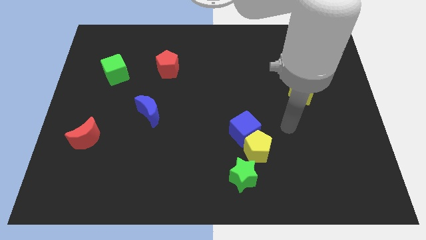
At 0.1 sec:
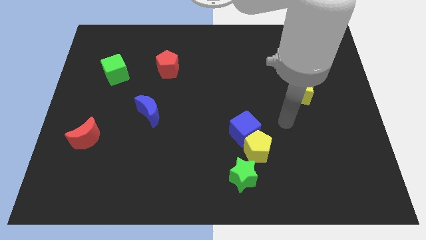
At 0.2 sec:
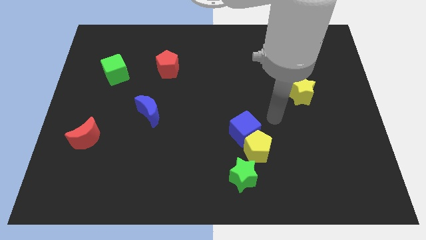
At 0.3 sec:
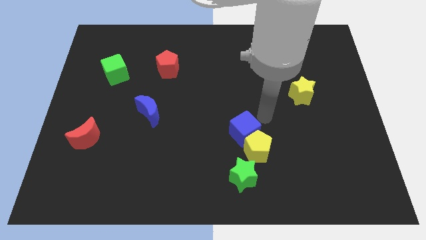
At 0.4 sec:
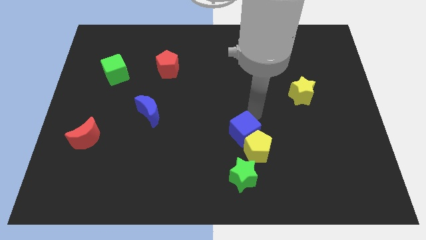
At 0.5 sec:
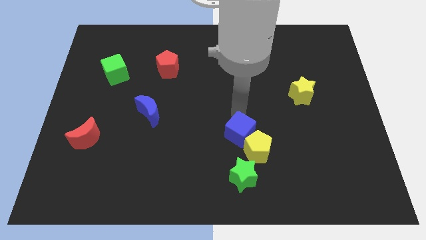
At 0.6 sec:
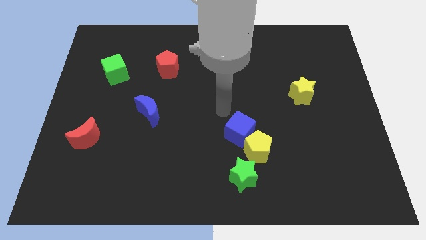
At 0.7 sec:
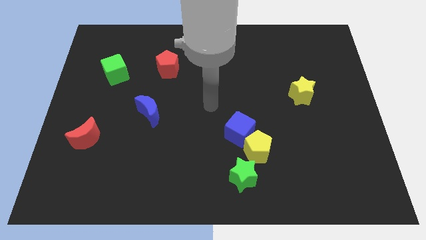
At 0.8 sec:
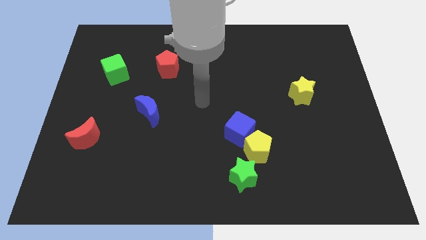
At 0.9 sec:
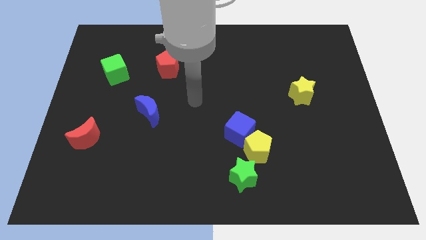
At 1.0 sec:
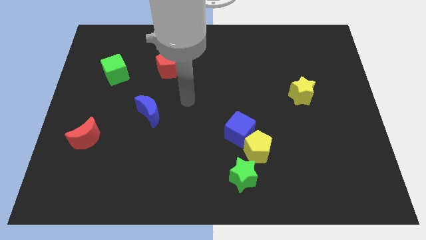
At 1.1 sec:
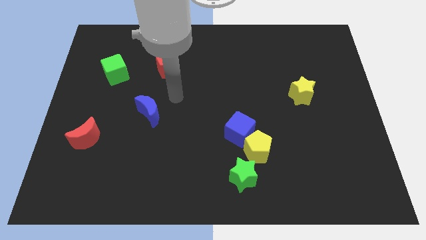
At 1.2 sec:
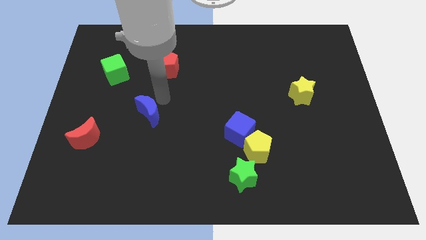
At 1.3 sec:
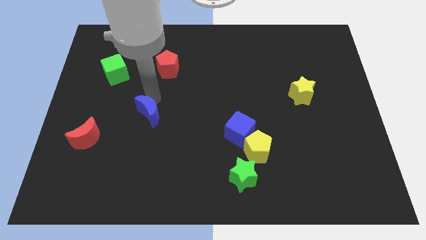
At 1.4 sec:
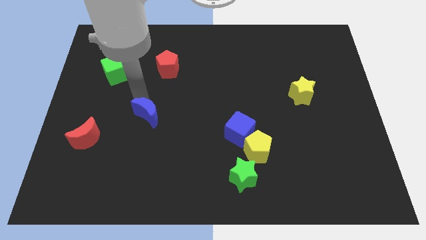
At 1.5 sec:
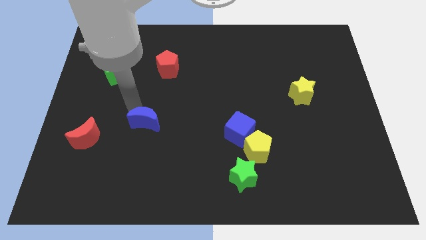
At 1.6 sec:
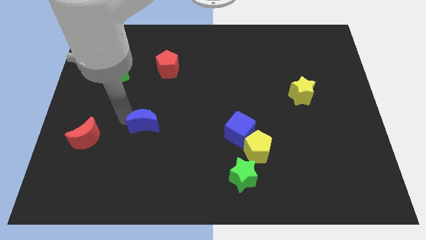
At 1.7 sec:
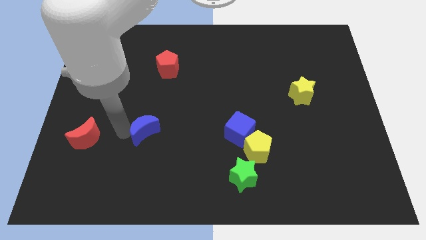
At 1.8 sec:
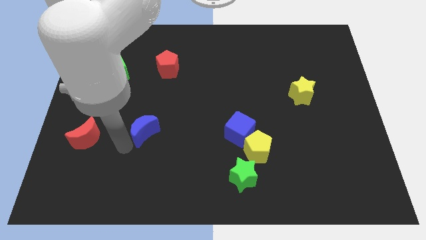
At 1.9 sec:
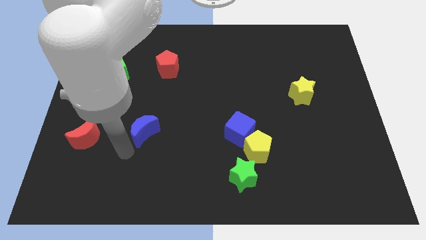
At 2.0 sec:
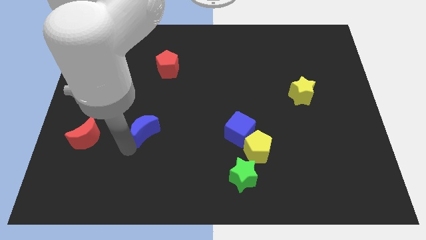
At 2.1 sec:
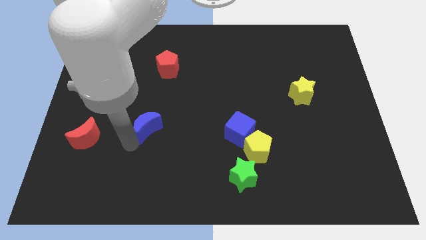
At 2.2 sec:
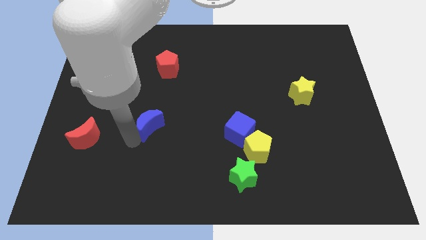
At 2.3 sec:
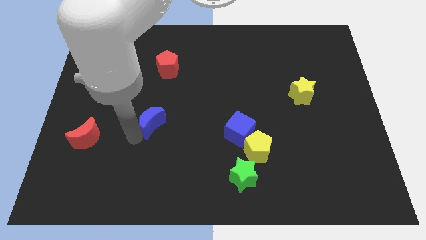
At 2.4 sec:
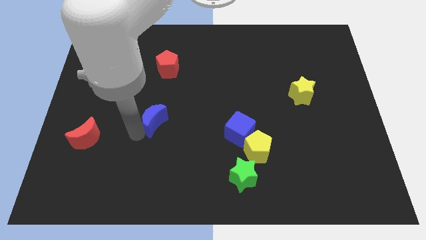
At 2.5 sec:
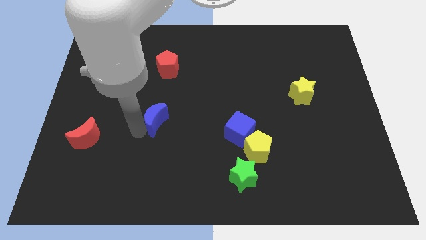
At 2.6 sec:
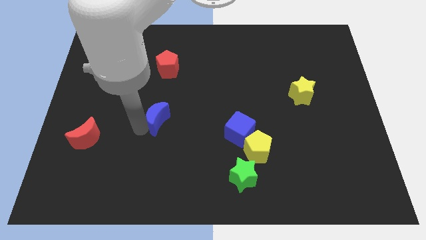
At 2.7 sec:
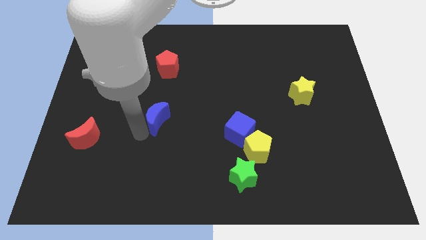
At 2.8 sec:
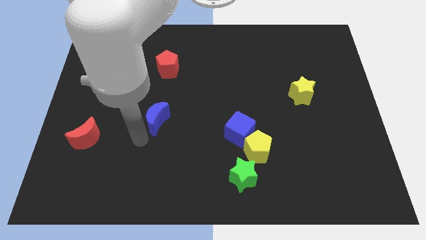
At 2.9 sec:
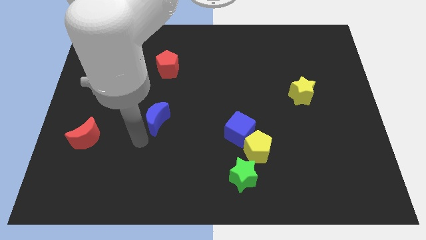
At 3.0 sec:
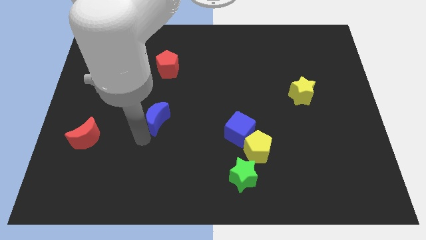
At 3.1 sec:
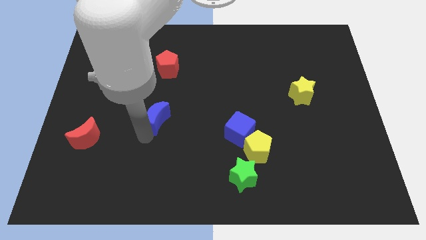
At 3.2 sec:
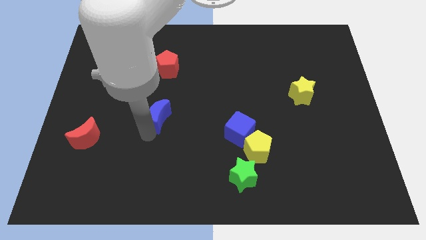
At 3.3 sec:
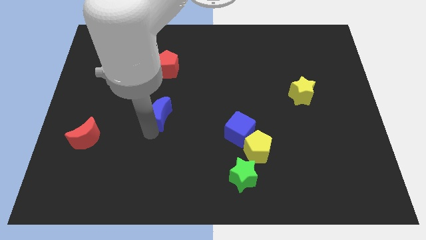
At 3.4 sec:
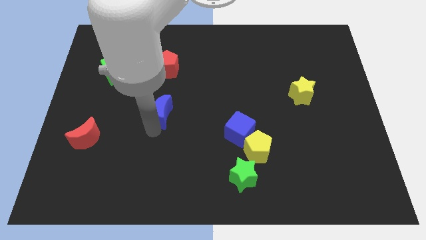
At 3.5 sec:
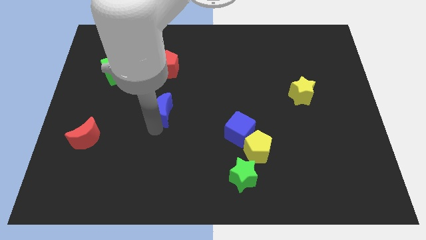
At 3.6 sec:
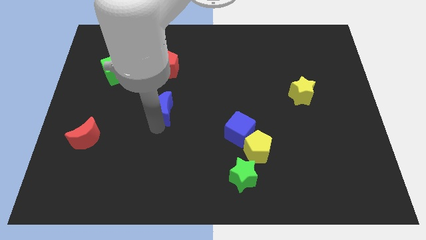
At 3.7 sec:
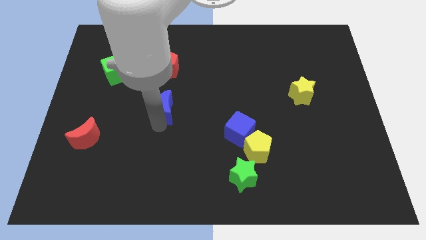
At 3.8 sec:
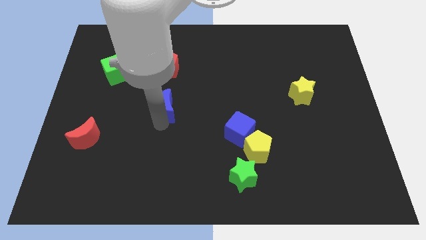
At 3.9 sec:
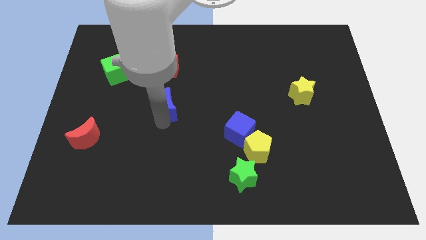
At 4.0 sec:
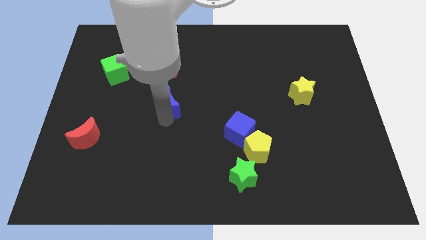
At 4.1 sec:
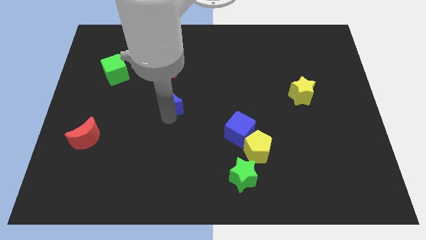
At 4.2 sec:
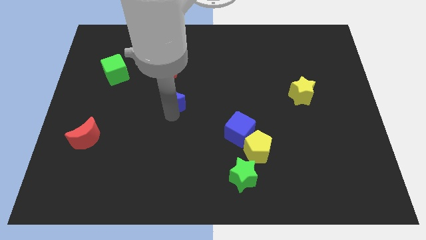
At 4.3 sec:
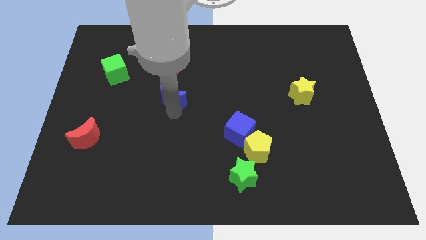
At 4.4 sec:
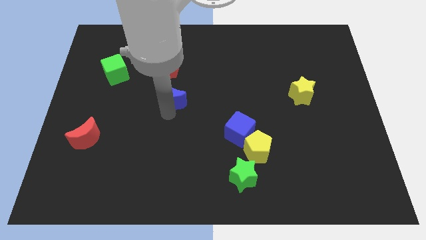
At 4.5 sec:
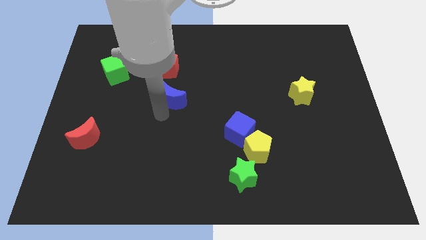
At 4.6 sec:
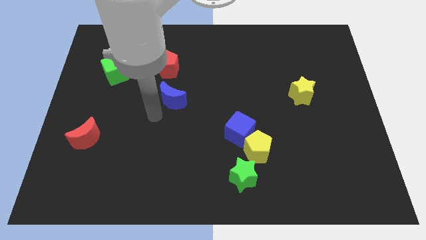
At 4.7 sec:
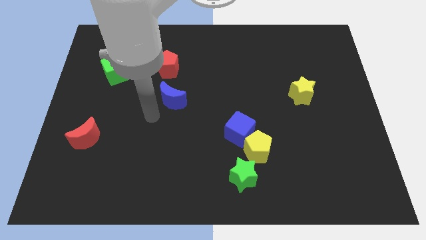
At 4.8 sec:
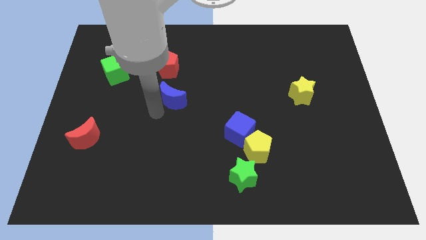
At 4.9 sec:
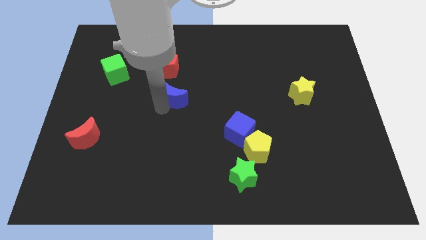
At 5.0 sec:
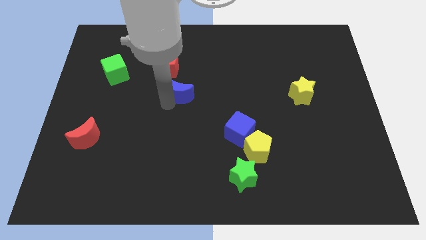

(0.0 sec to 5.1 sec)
slightly push the blue moon diagonally up and right

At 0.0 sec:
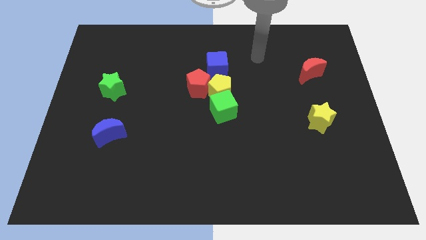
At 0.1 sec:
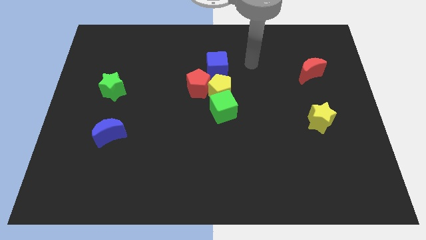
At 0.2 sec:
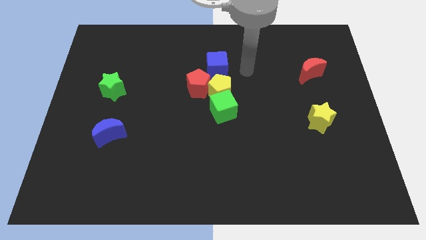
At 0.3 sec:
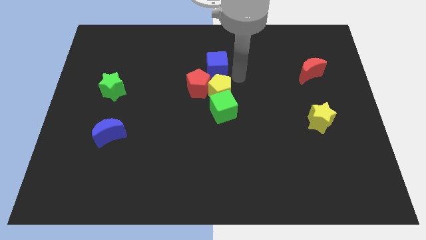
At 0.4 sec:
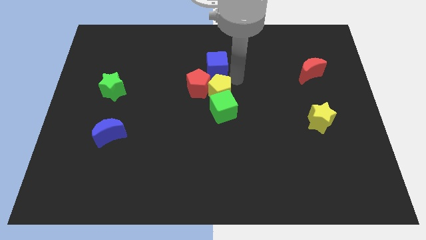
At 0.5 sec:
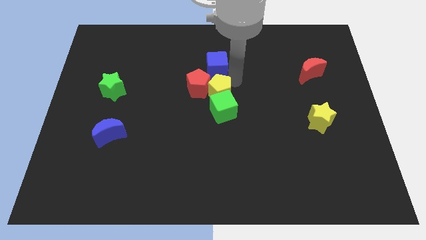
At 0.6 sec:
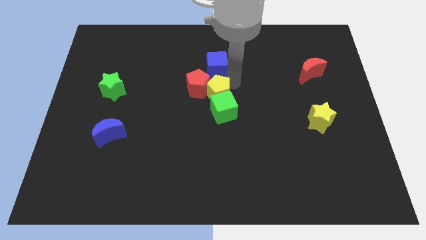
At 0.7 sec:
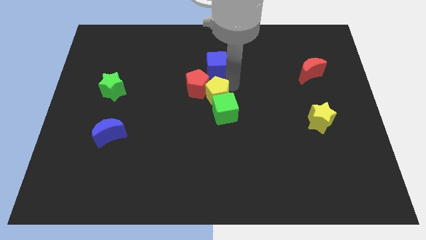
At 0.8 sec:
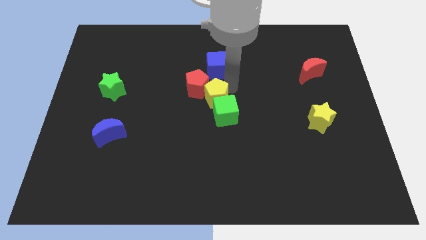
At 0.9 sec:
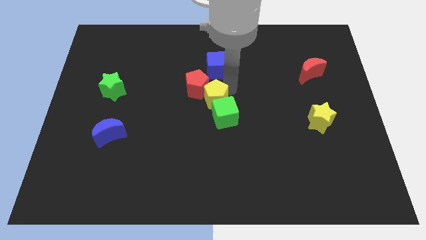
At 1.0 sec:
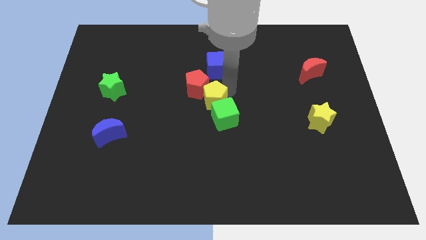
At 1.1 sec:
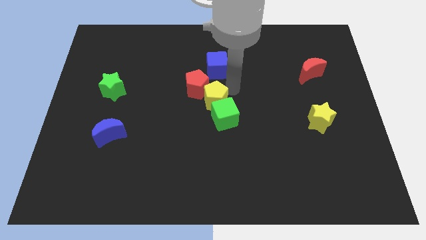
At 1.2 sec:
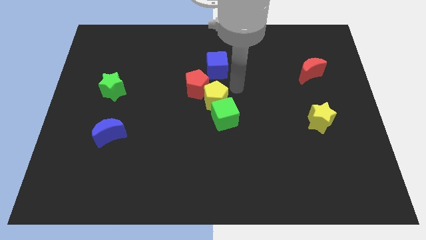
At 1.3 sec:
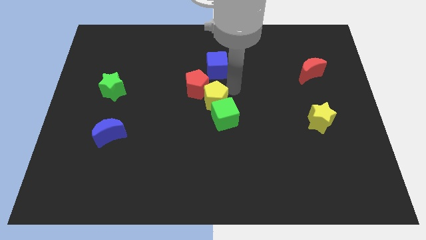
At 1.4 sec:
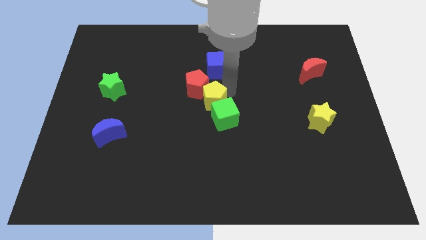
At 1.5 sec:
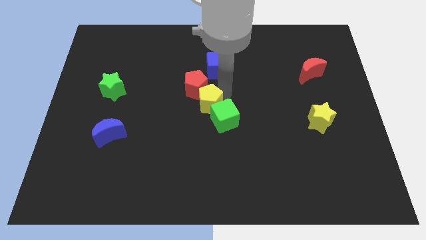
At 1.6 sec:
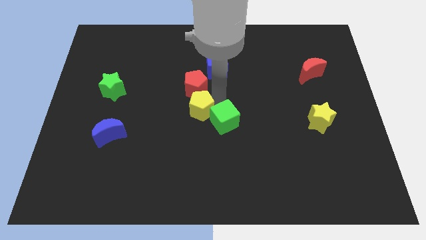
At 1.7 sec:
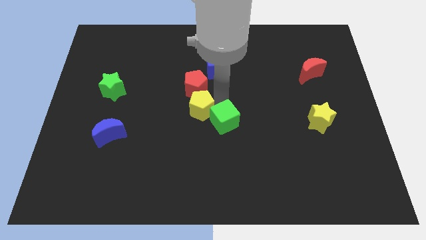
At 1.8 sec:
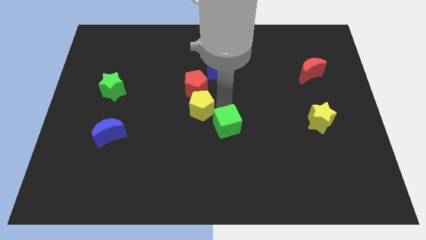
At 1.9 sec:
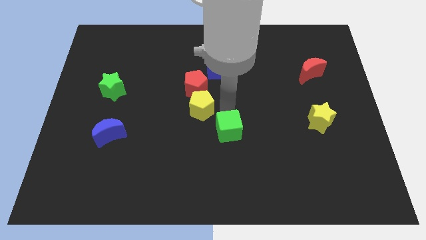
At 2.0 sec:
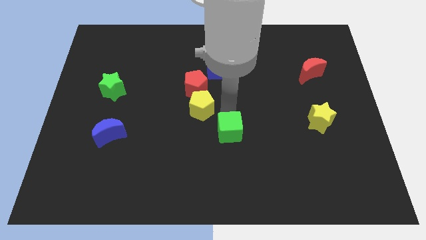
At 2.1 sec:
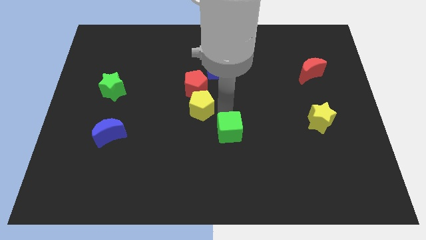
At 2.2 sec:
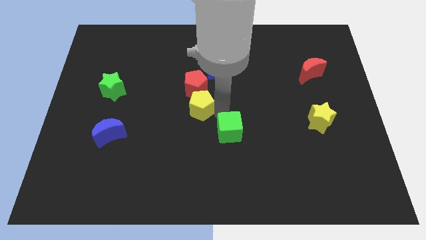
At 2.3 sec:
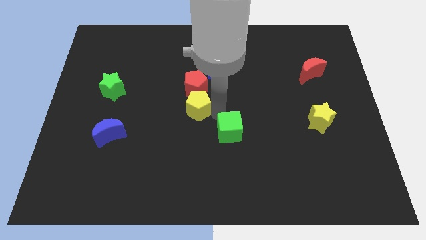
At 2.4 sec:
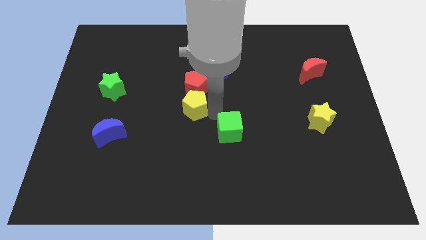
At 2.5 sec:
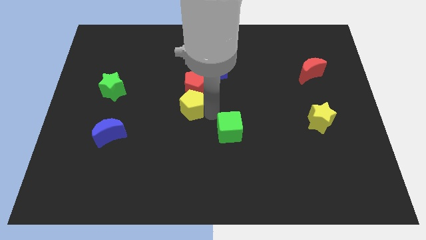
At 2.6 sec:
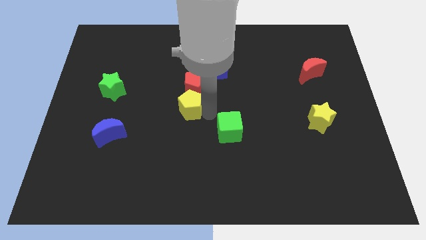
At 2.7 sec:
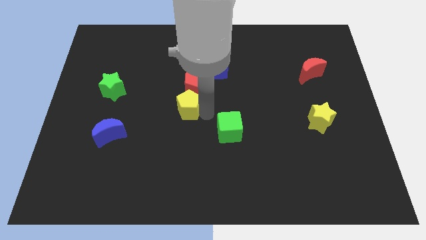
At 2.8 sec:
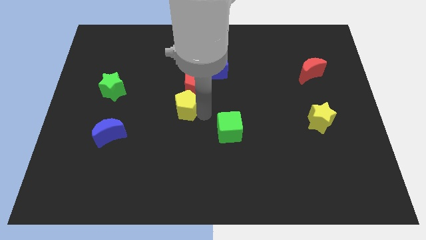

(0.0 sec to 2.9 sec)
slightly move the yellow pentagon to the left
